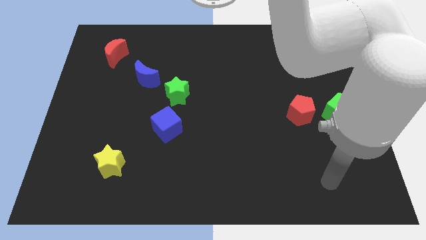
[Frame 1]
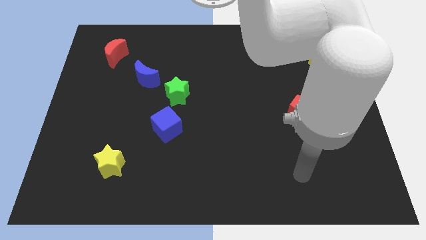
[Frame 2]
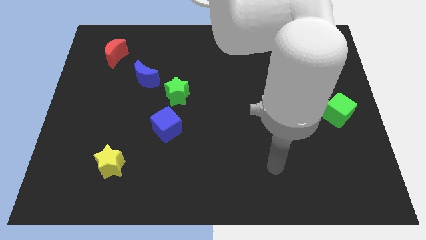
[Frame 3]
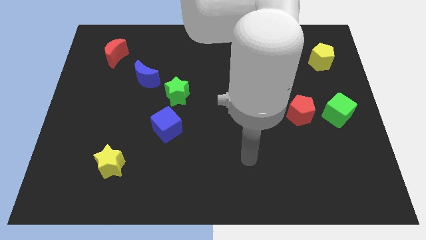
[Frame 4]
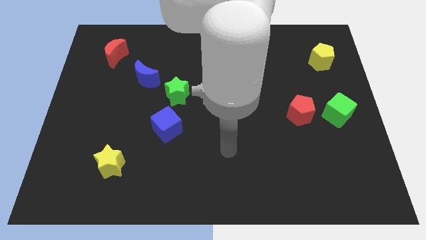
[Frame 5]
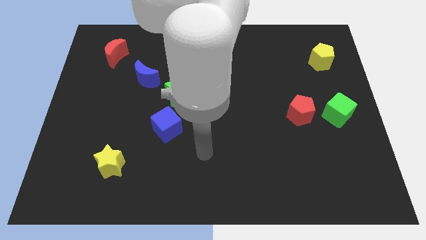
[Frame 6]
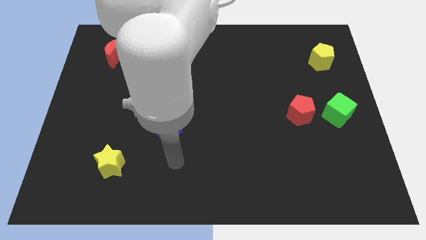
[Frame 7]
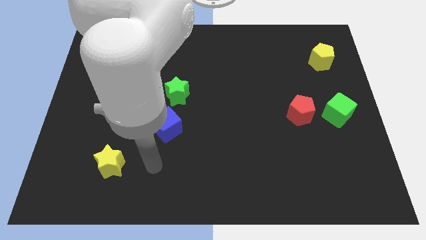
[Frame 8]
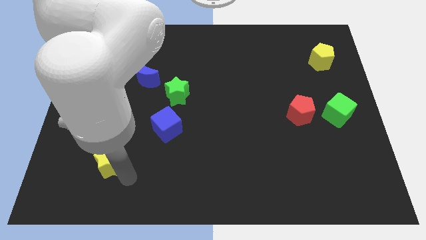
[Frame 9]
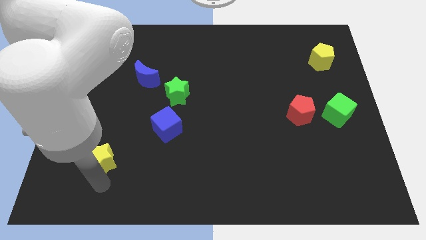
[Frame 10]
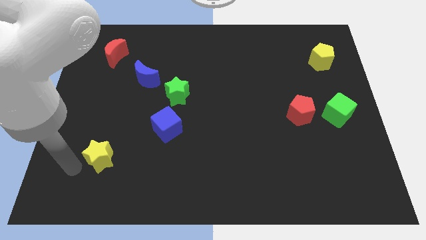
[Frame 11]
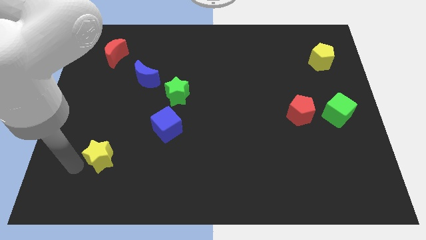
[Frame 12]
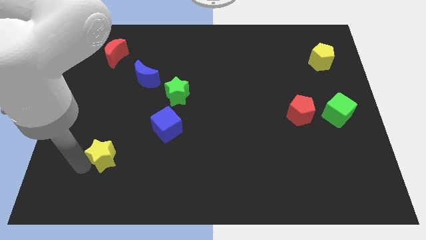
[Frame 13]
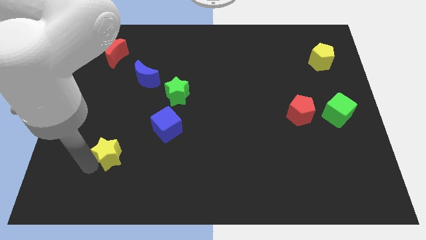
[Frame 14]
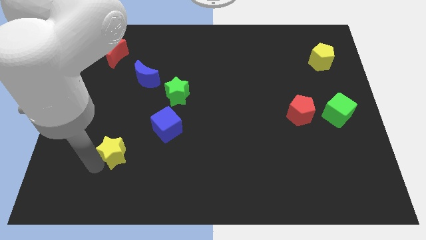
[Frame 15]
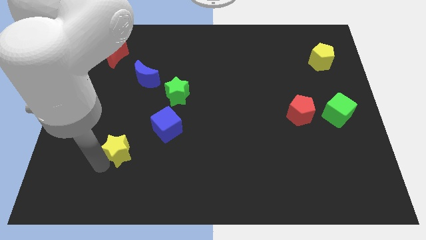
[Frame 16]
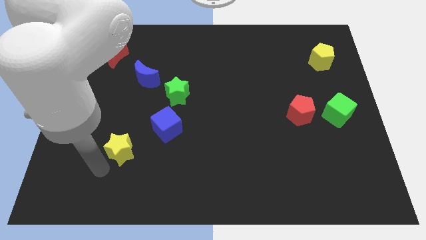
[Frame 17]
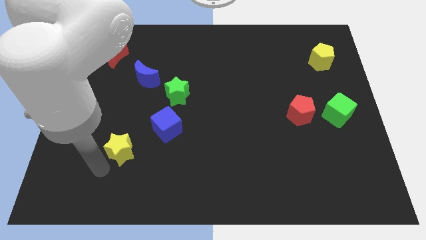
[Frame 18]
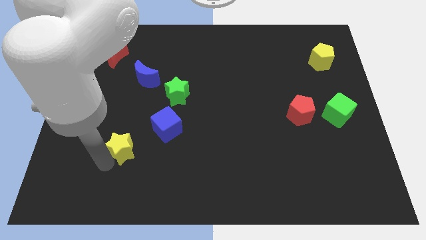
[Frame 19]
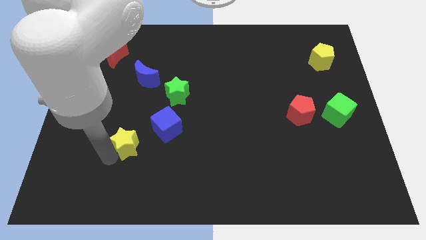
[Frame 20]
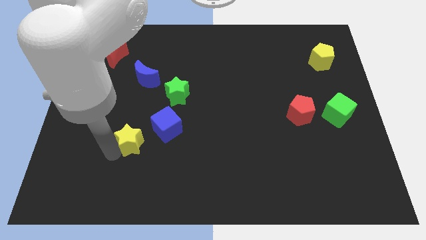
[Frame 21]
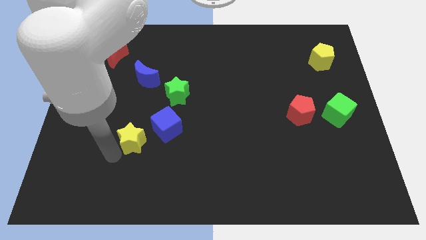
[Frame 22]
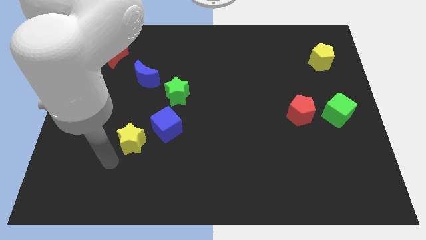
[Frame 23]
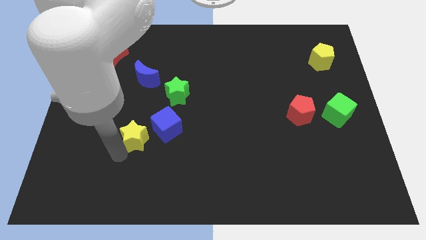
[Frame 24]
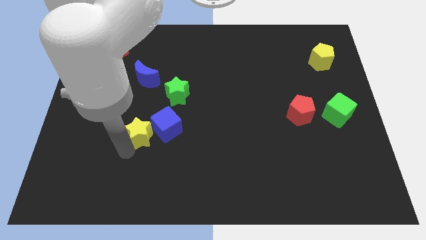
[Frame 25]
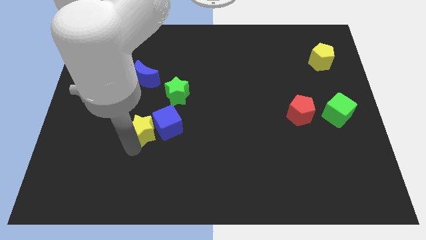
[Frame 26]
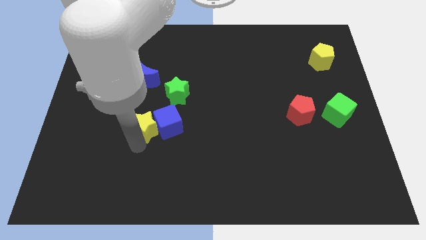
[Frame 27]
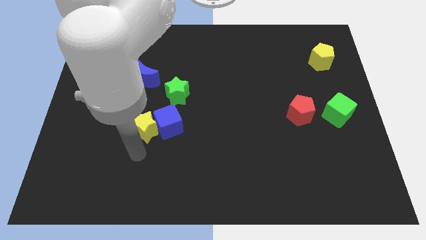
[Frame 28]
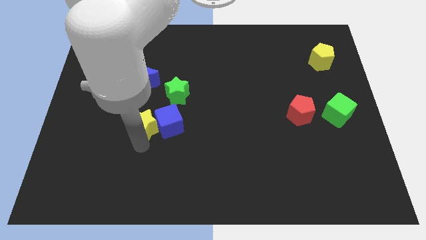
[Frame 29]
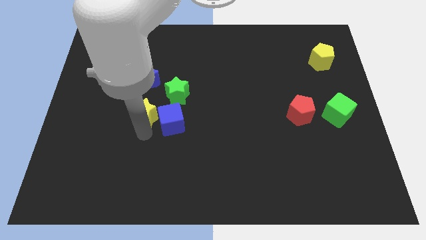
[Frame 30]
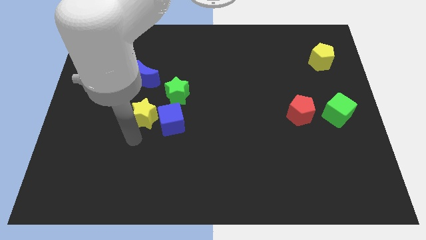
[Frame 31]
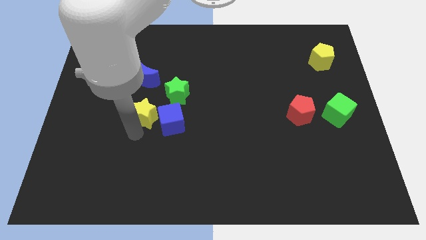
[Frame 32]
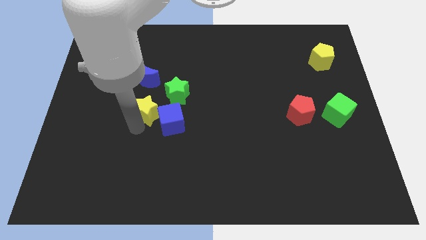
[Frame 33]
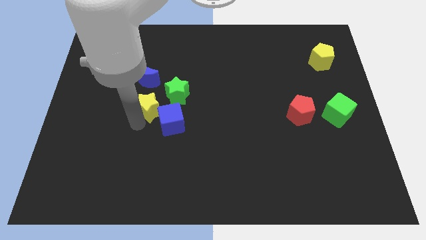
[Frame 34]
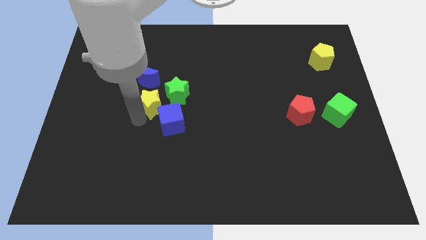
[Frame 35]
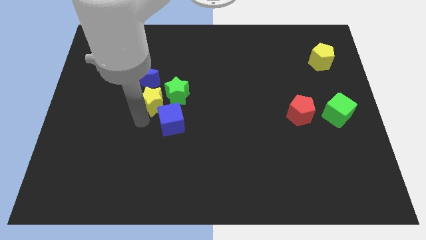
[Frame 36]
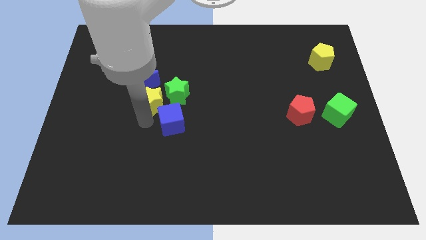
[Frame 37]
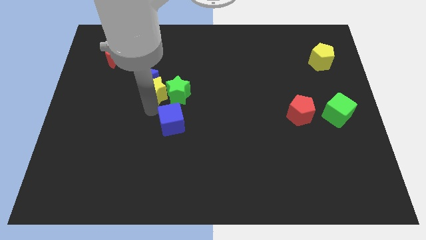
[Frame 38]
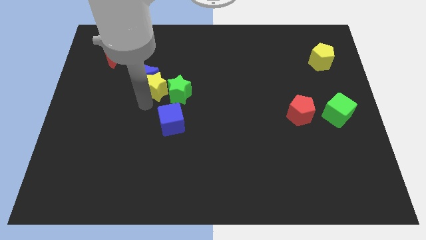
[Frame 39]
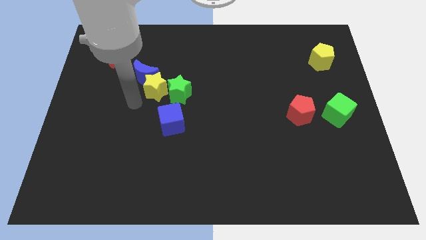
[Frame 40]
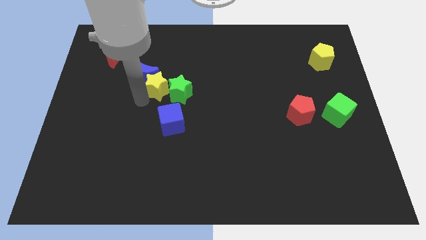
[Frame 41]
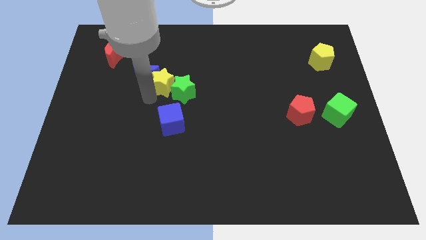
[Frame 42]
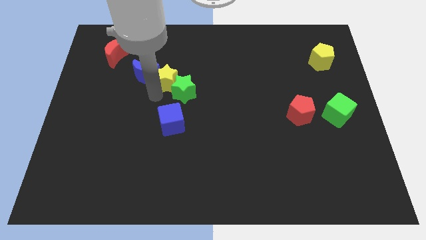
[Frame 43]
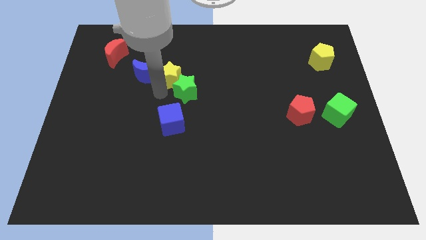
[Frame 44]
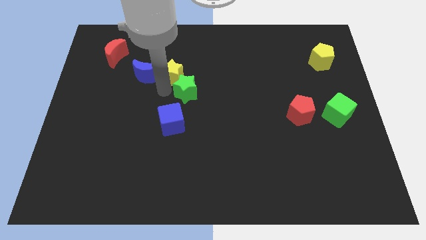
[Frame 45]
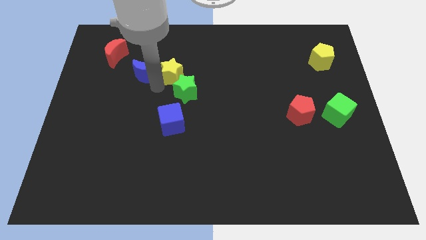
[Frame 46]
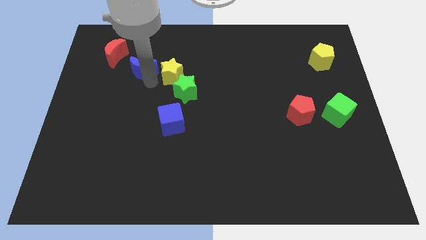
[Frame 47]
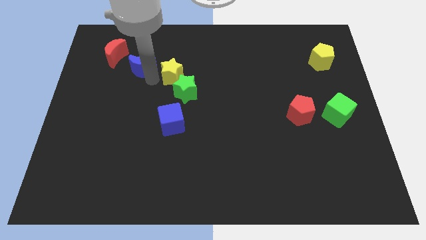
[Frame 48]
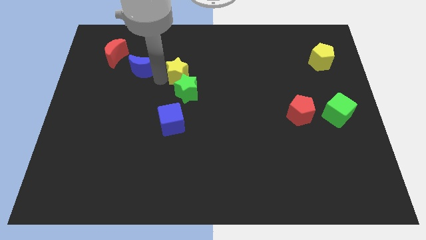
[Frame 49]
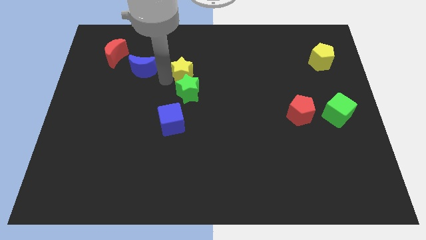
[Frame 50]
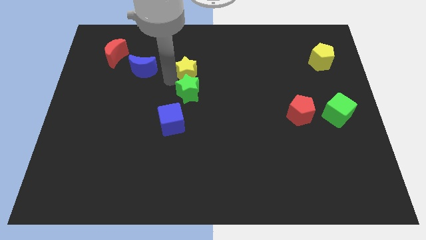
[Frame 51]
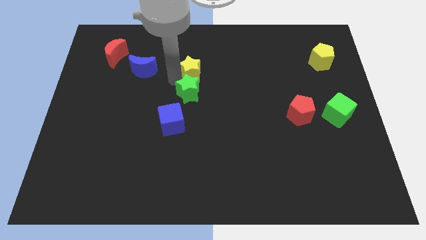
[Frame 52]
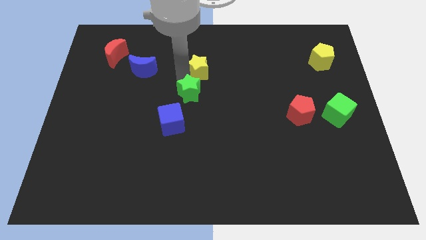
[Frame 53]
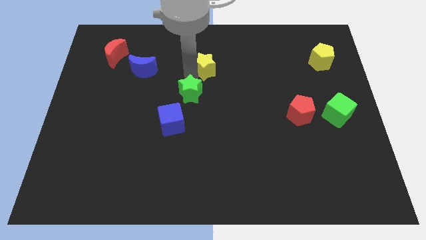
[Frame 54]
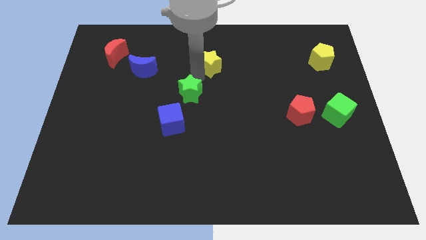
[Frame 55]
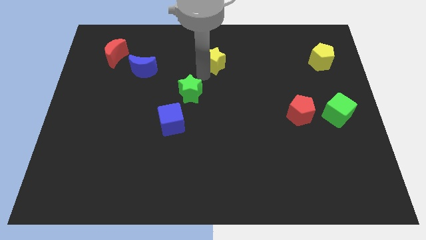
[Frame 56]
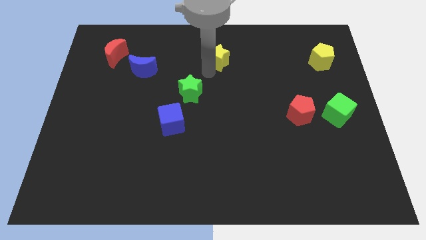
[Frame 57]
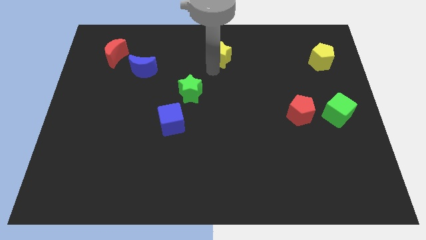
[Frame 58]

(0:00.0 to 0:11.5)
slide the yellow star to the top side

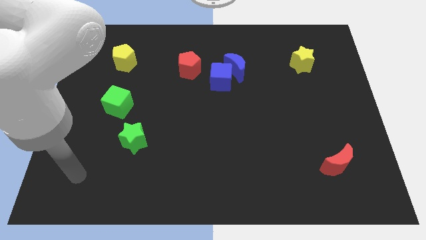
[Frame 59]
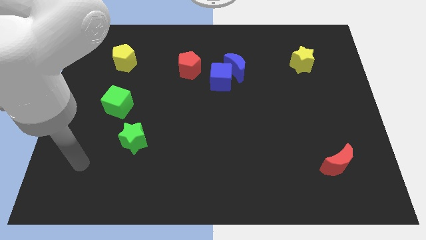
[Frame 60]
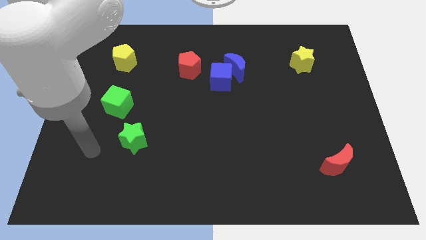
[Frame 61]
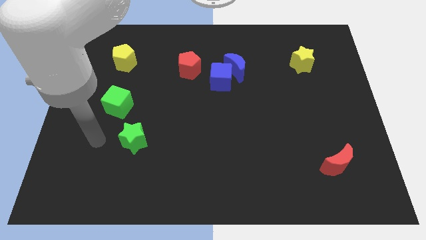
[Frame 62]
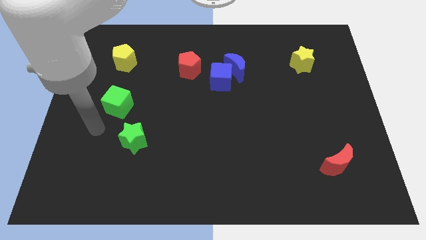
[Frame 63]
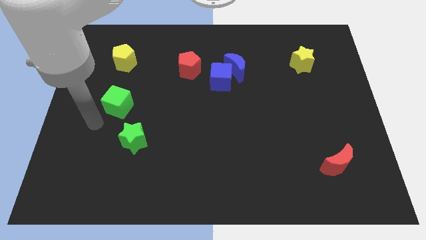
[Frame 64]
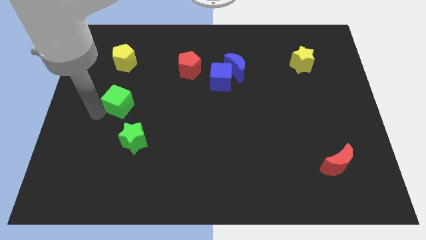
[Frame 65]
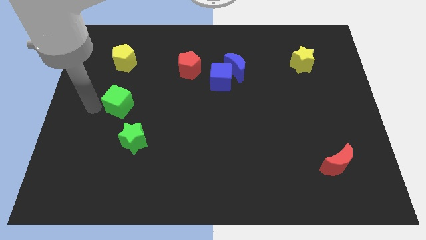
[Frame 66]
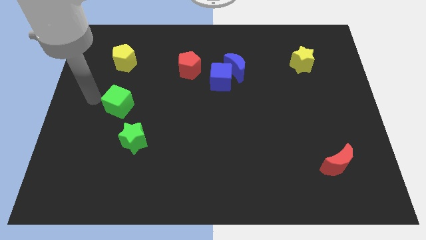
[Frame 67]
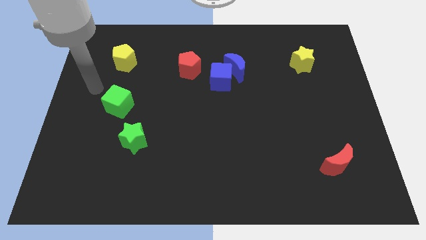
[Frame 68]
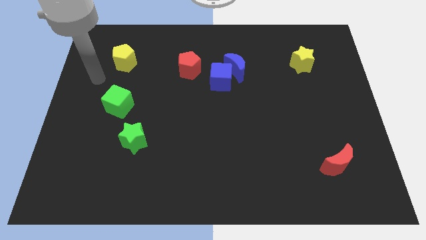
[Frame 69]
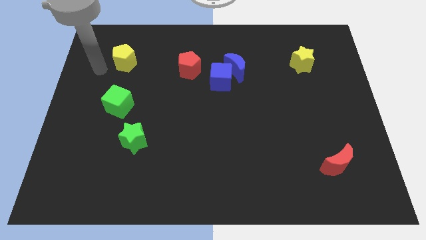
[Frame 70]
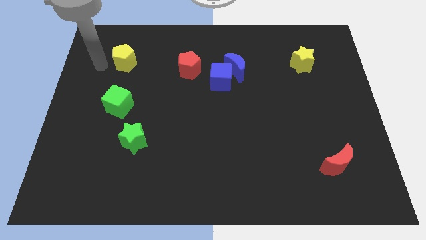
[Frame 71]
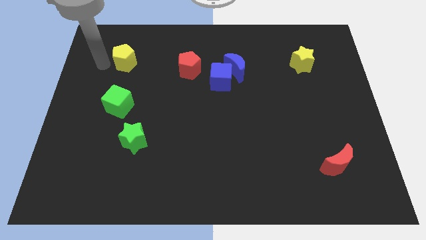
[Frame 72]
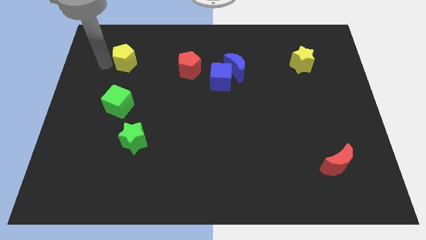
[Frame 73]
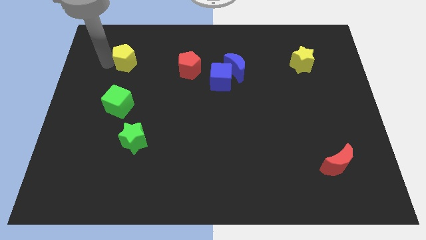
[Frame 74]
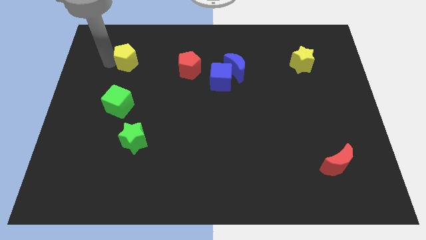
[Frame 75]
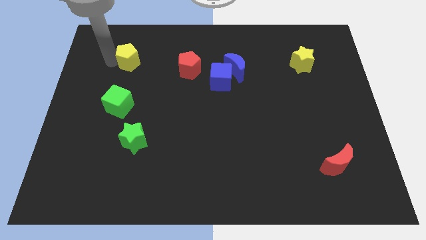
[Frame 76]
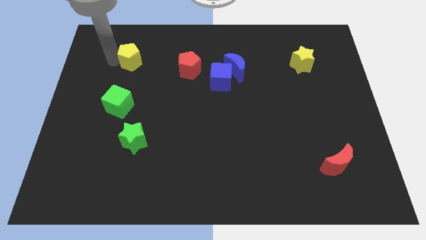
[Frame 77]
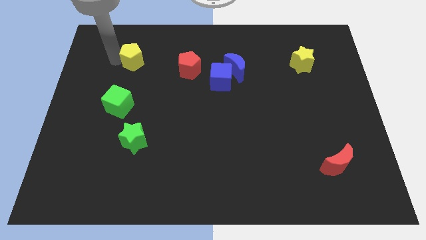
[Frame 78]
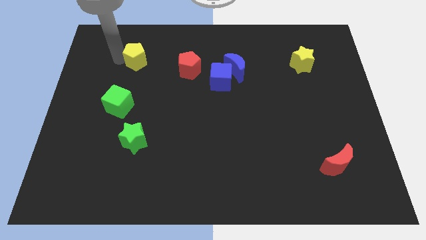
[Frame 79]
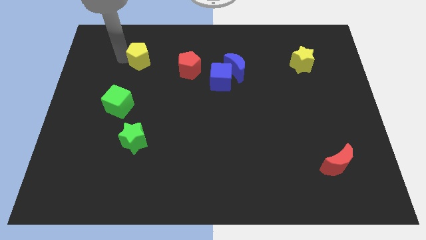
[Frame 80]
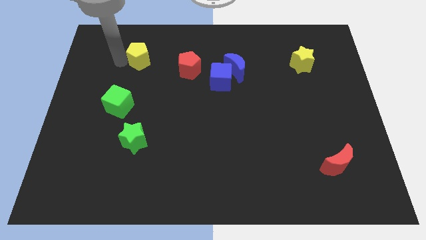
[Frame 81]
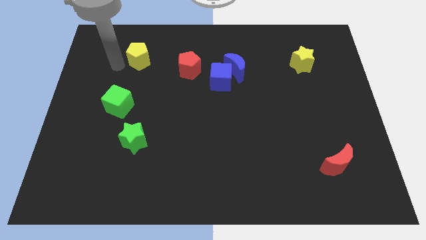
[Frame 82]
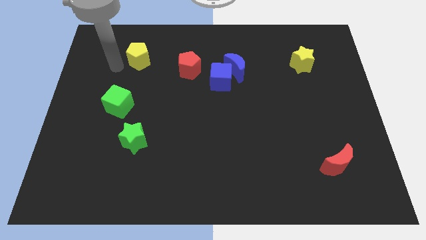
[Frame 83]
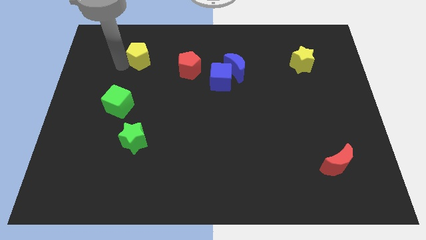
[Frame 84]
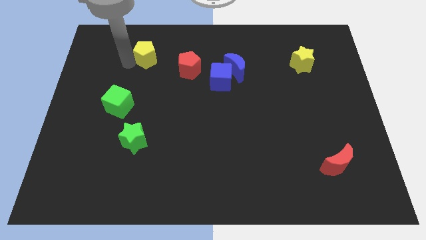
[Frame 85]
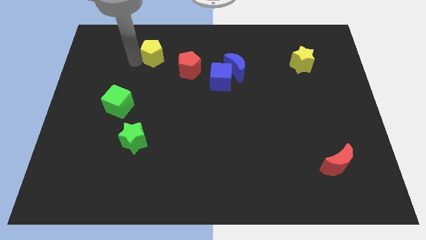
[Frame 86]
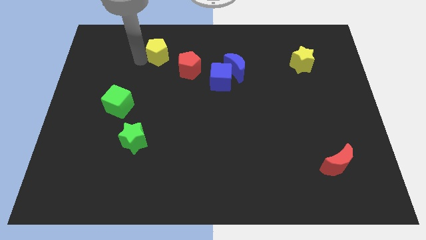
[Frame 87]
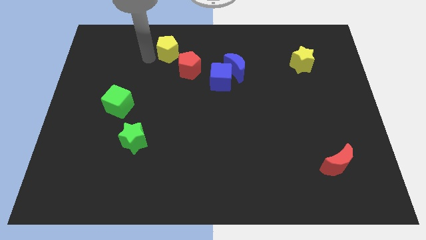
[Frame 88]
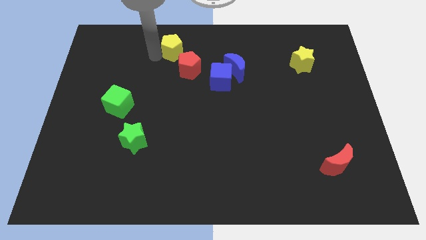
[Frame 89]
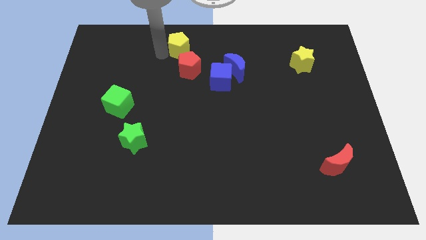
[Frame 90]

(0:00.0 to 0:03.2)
push the yellow pentagon to the towards your base
